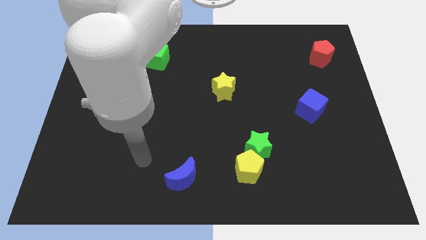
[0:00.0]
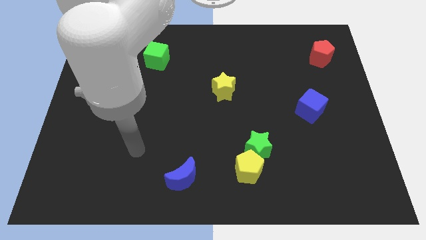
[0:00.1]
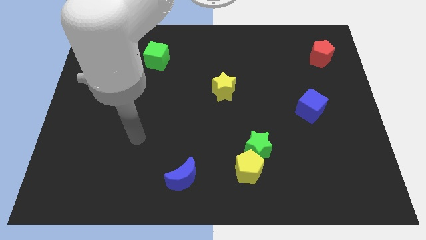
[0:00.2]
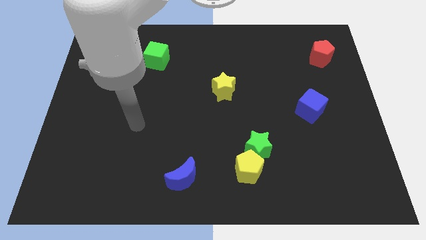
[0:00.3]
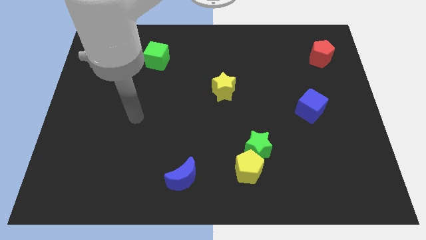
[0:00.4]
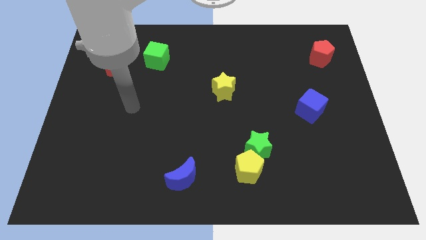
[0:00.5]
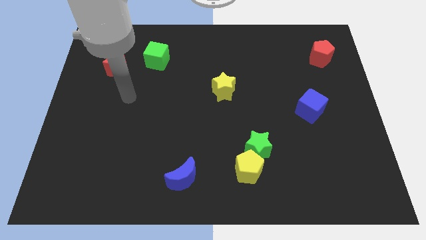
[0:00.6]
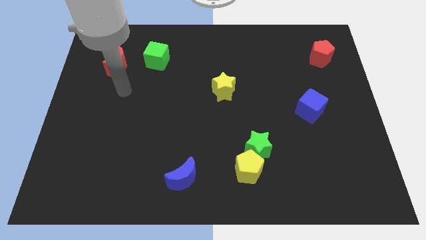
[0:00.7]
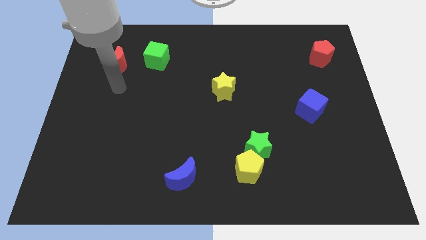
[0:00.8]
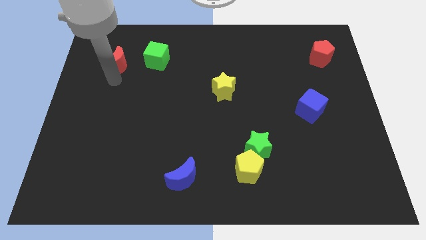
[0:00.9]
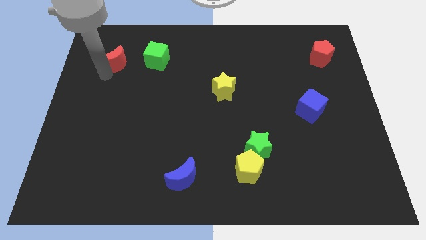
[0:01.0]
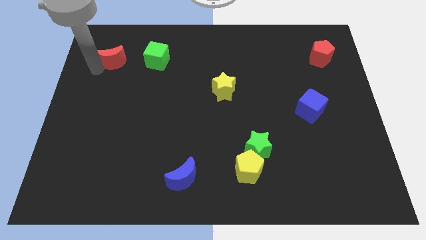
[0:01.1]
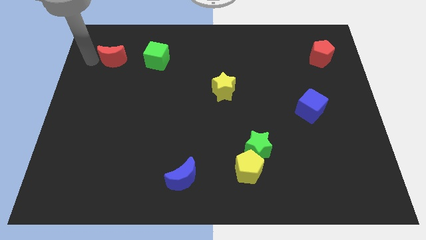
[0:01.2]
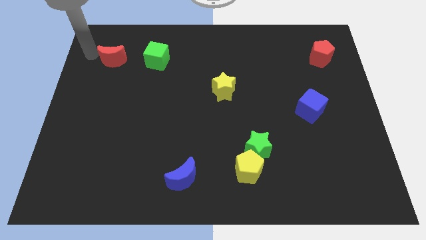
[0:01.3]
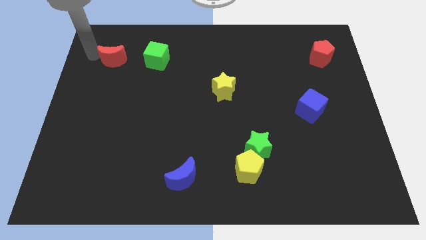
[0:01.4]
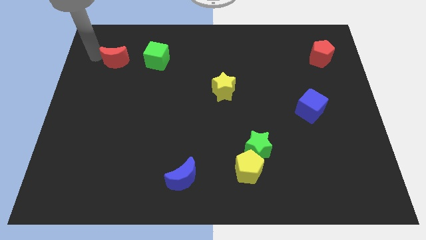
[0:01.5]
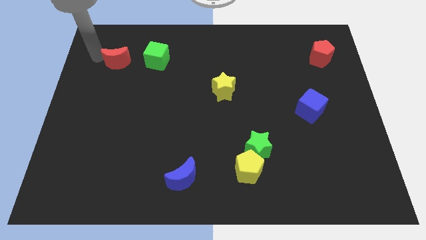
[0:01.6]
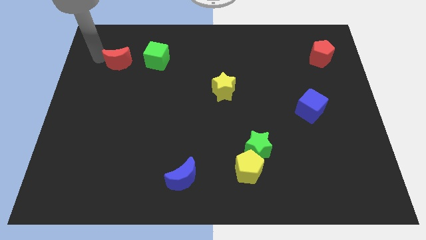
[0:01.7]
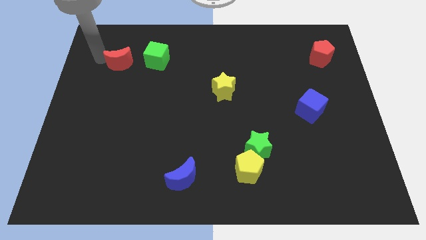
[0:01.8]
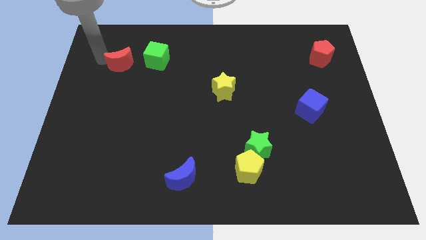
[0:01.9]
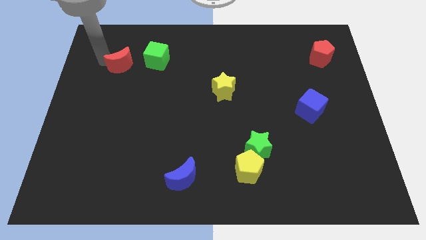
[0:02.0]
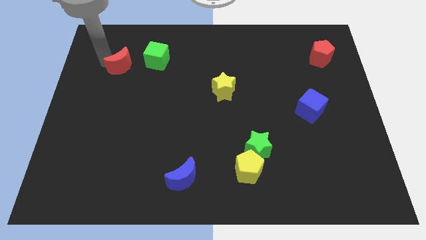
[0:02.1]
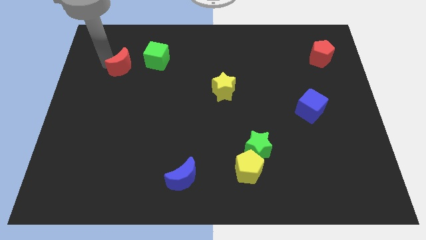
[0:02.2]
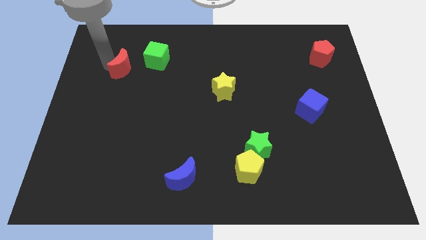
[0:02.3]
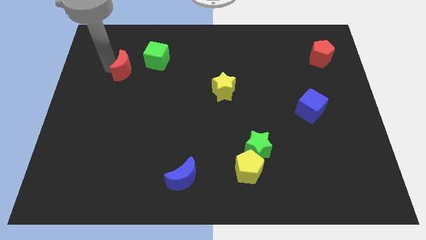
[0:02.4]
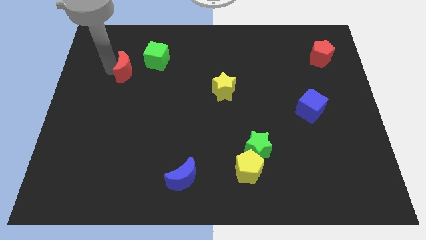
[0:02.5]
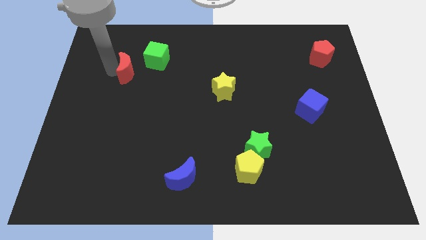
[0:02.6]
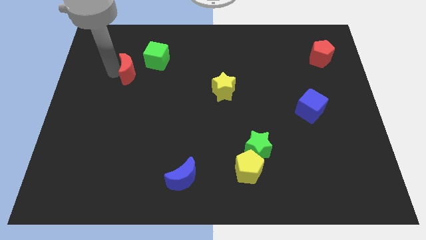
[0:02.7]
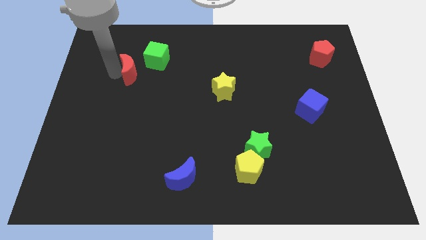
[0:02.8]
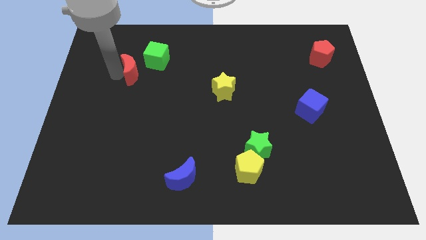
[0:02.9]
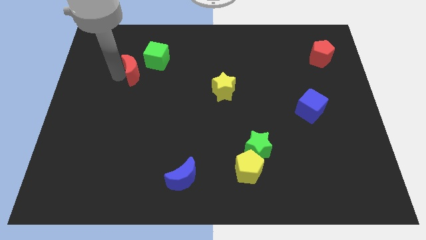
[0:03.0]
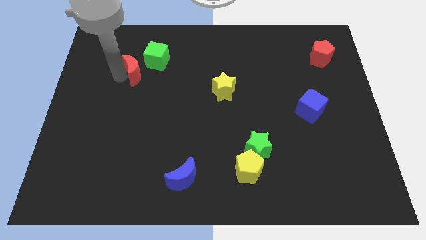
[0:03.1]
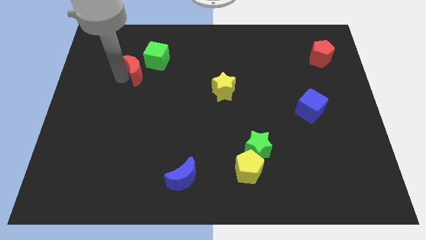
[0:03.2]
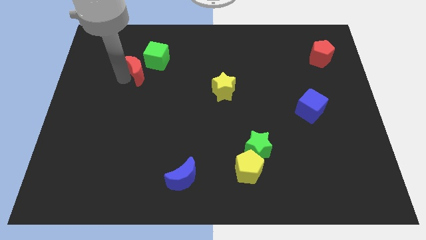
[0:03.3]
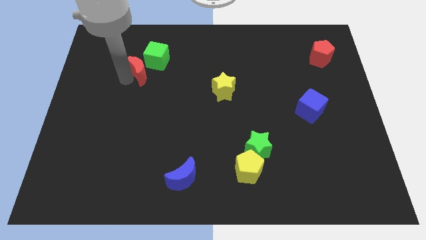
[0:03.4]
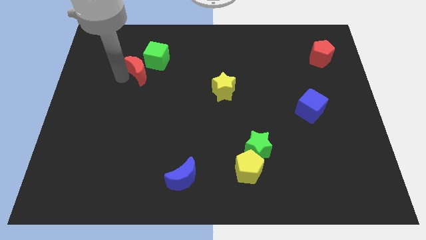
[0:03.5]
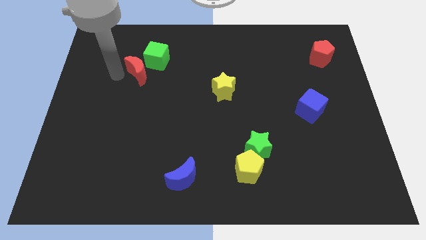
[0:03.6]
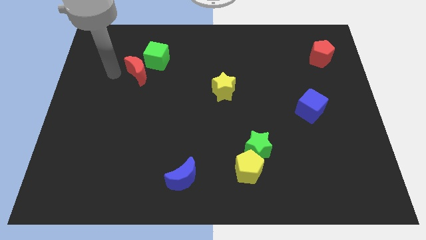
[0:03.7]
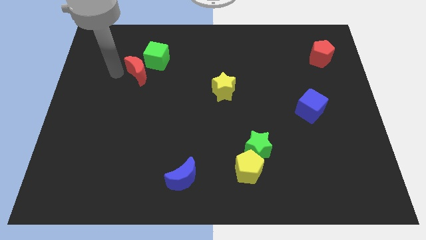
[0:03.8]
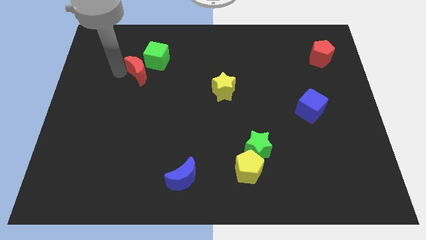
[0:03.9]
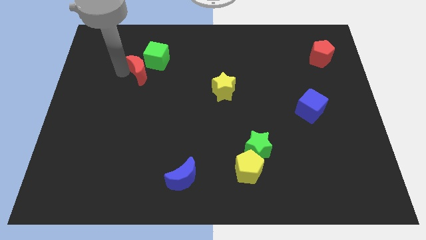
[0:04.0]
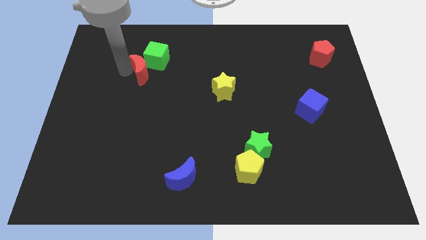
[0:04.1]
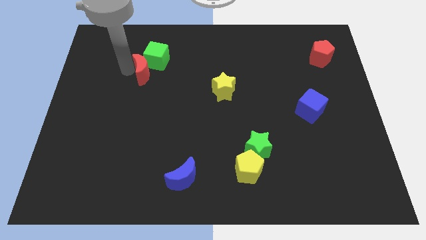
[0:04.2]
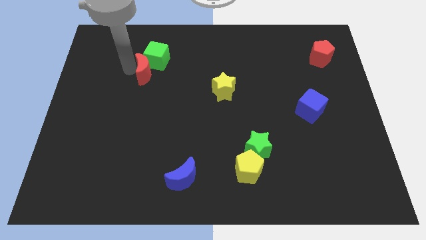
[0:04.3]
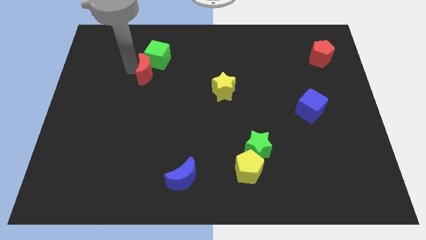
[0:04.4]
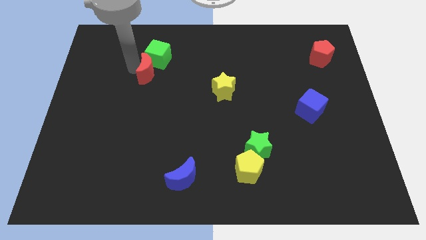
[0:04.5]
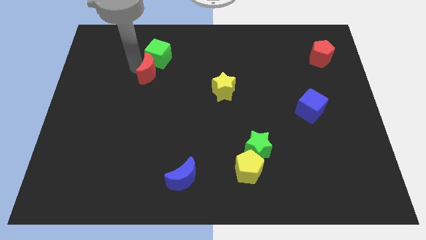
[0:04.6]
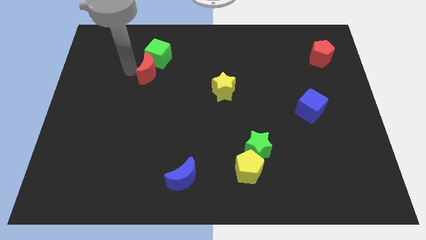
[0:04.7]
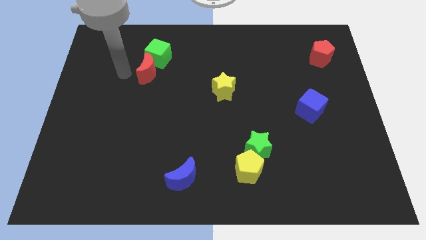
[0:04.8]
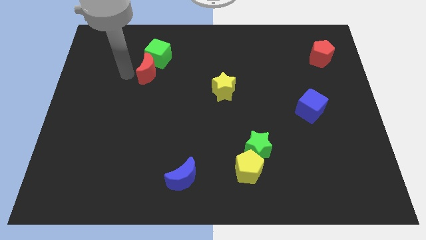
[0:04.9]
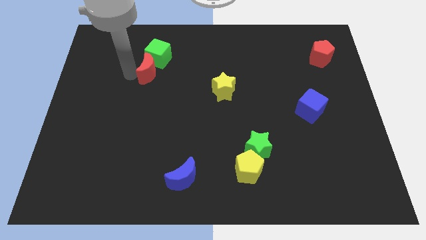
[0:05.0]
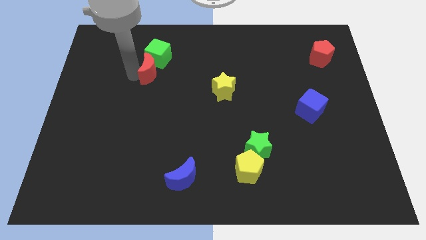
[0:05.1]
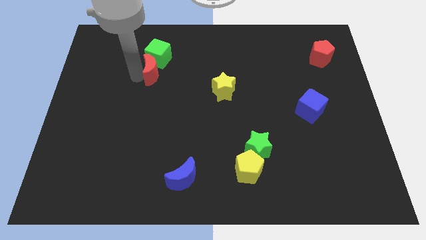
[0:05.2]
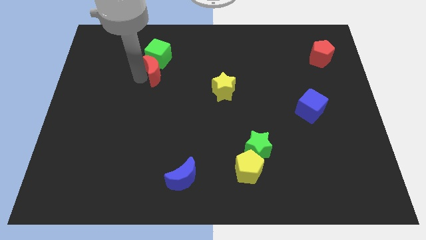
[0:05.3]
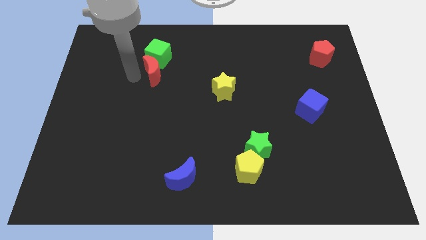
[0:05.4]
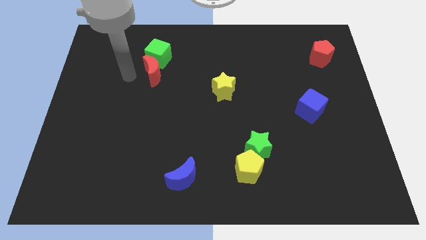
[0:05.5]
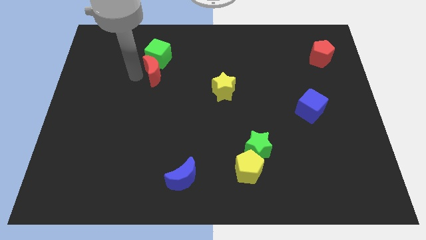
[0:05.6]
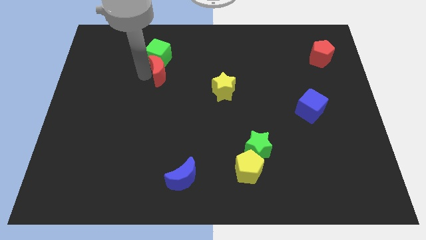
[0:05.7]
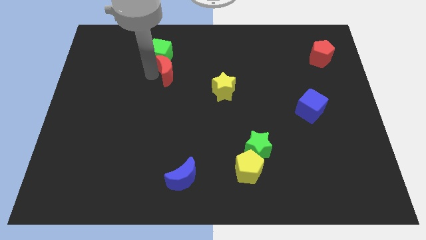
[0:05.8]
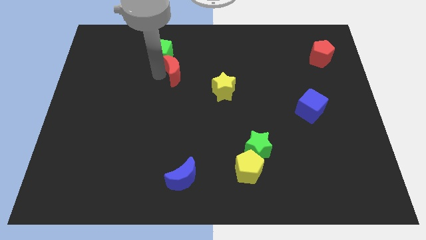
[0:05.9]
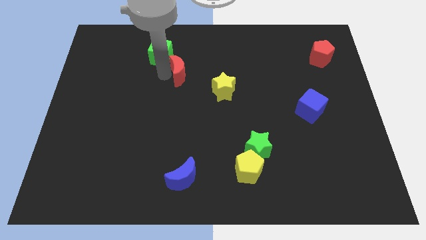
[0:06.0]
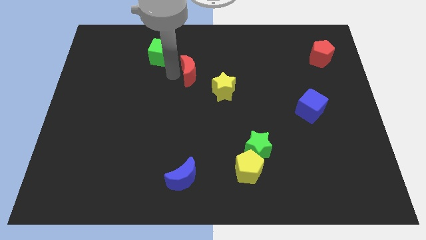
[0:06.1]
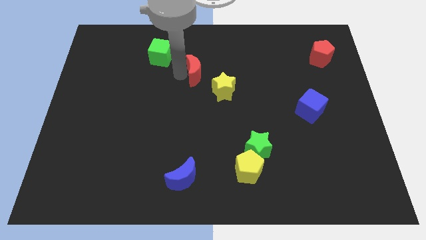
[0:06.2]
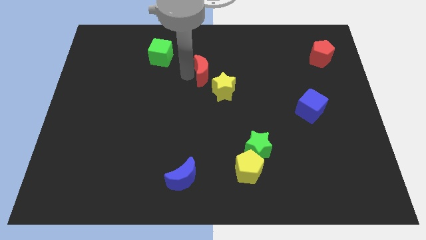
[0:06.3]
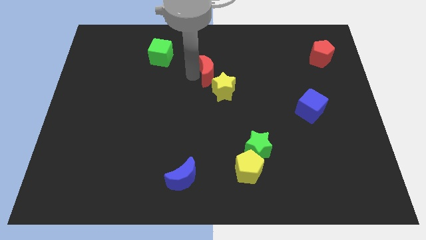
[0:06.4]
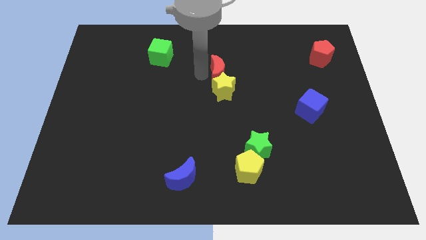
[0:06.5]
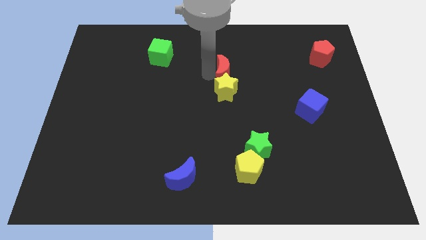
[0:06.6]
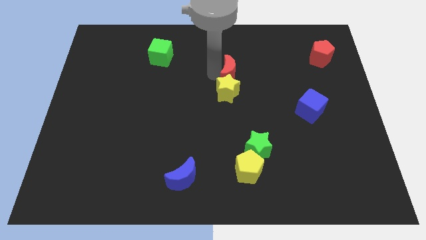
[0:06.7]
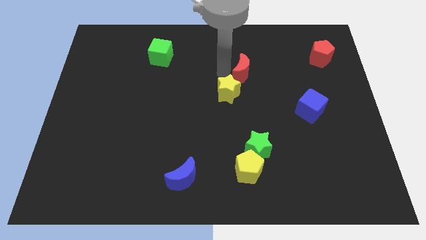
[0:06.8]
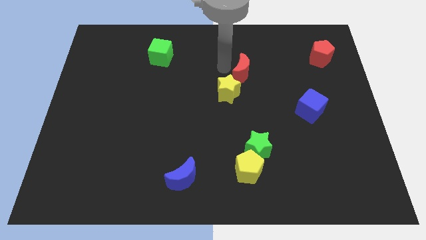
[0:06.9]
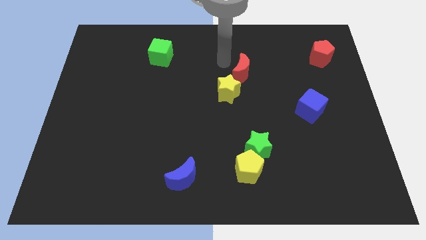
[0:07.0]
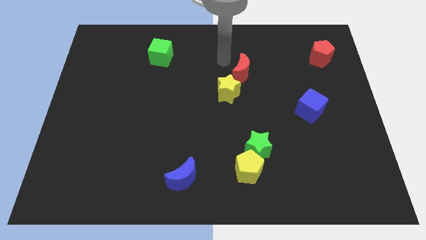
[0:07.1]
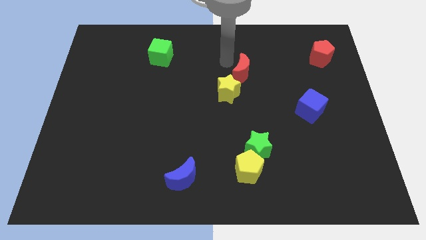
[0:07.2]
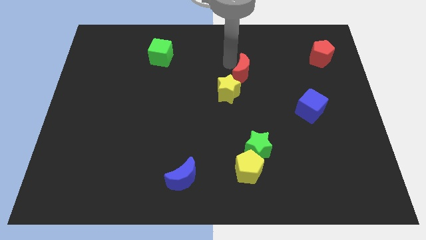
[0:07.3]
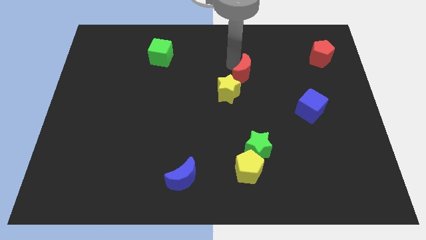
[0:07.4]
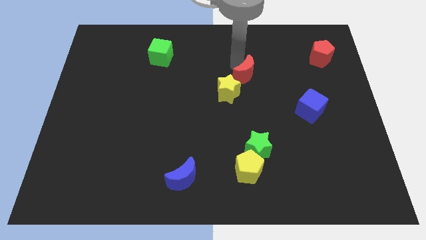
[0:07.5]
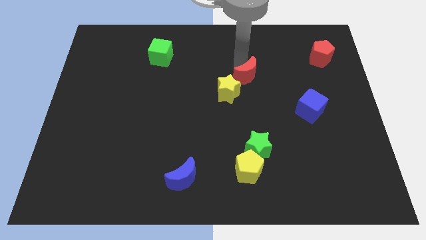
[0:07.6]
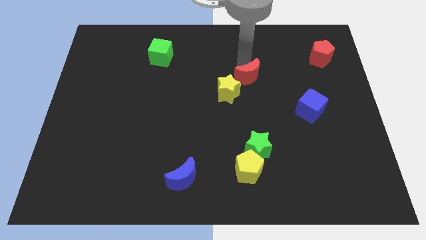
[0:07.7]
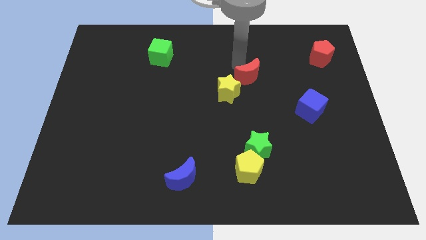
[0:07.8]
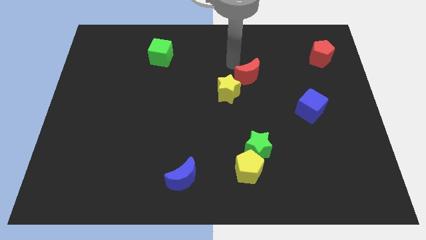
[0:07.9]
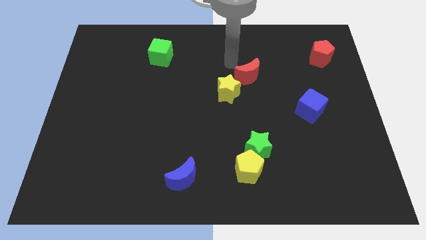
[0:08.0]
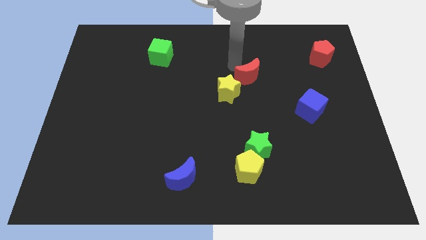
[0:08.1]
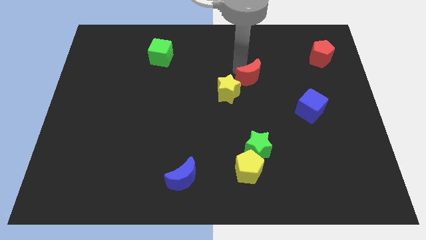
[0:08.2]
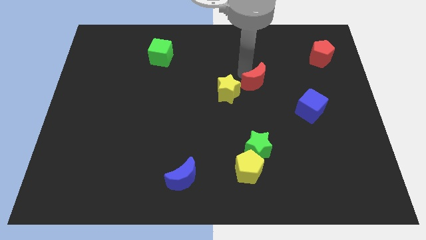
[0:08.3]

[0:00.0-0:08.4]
push the red moon right of the yellow star
